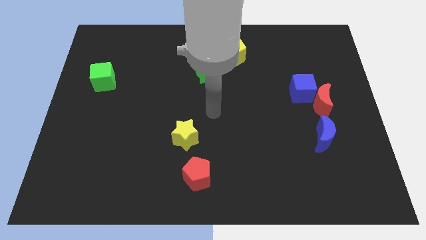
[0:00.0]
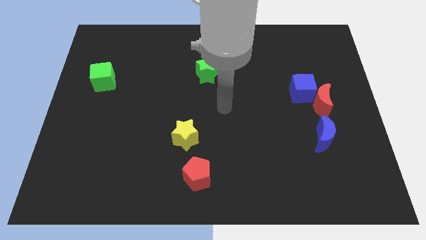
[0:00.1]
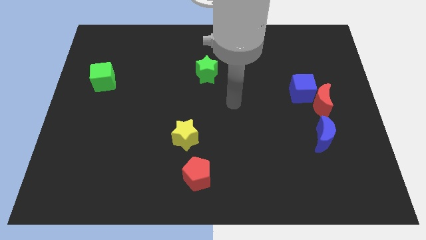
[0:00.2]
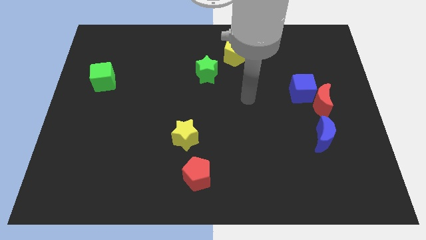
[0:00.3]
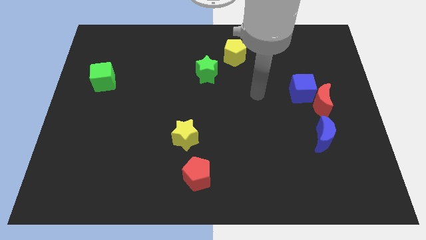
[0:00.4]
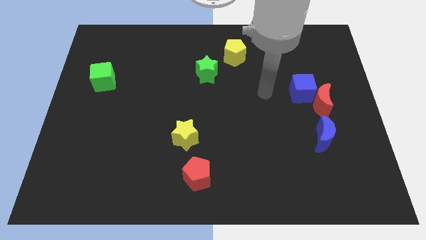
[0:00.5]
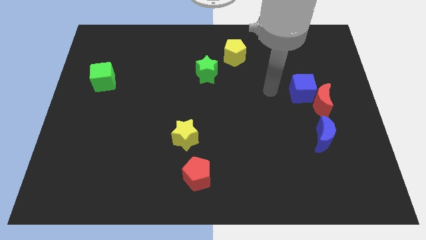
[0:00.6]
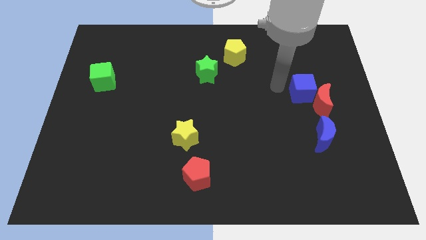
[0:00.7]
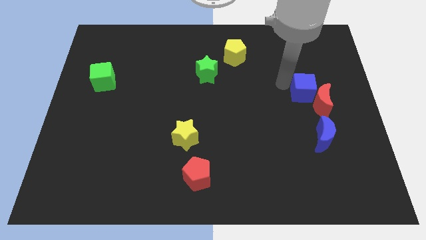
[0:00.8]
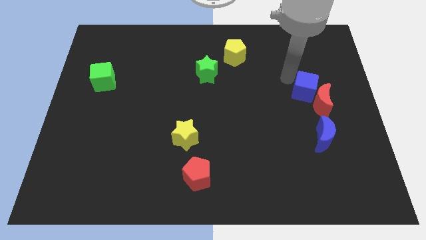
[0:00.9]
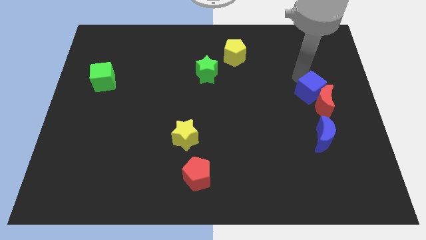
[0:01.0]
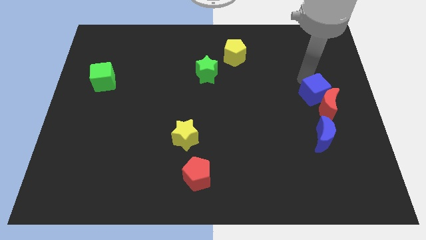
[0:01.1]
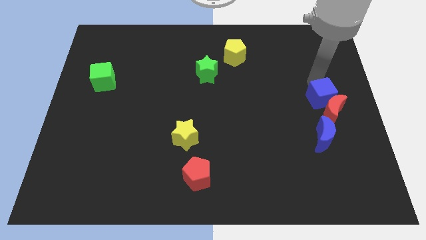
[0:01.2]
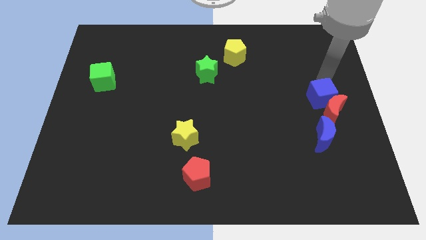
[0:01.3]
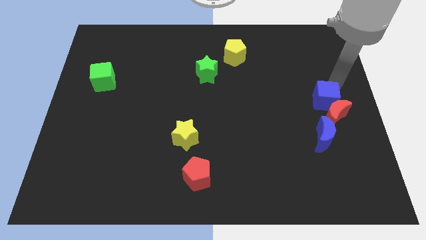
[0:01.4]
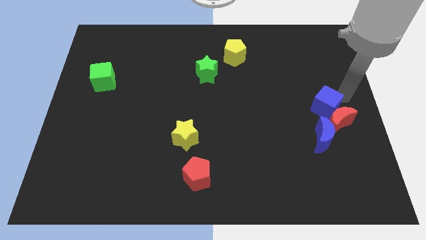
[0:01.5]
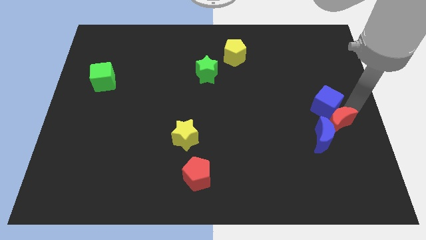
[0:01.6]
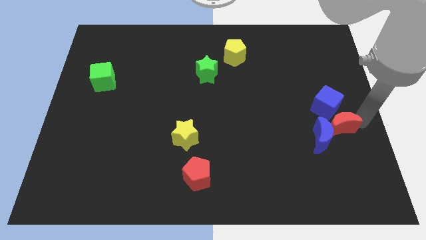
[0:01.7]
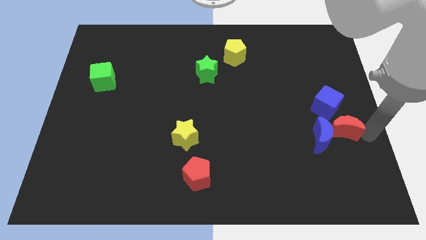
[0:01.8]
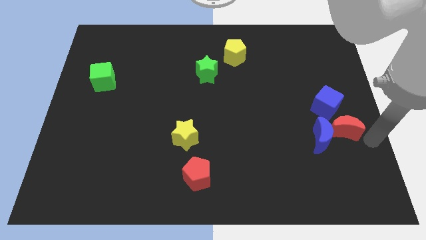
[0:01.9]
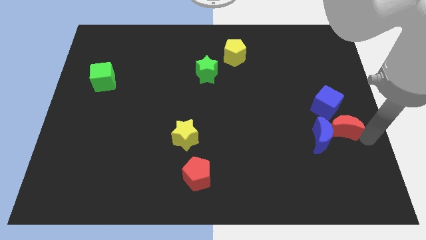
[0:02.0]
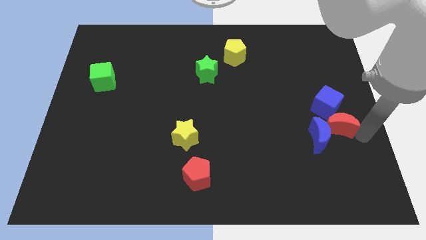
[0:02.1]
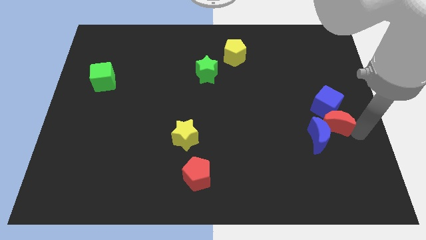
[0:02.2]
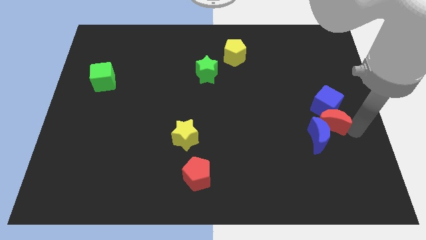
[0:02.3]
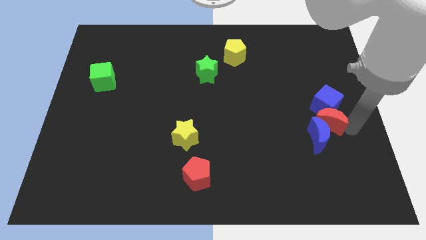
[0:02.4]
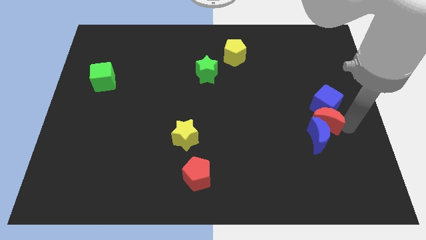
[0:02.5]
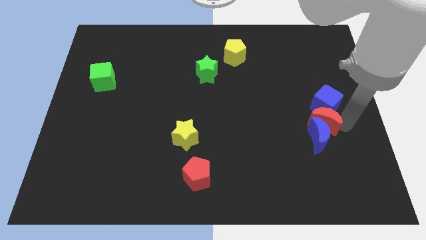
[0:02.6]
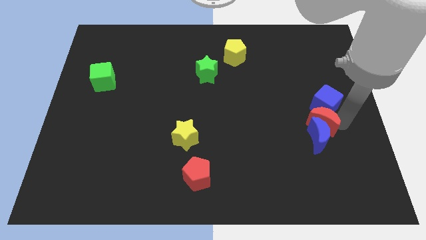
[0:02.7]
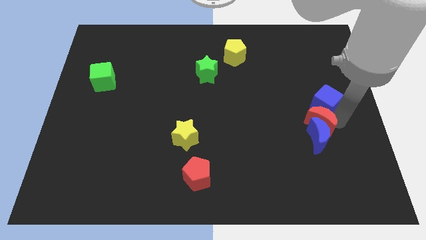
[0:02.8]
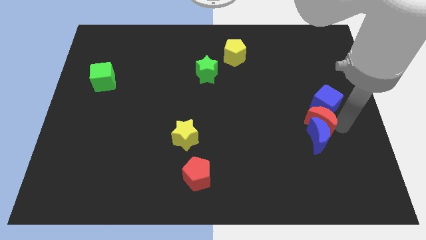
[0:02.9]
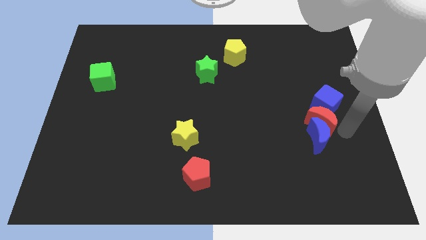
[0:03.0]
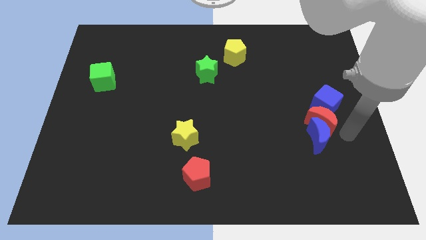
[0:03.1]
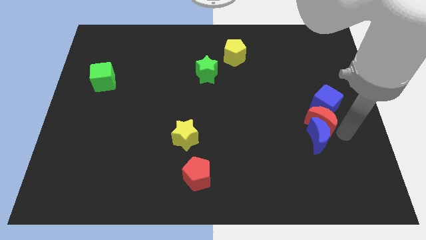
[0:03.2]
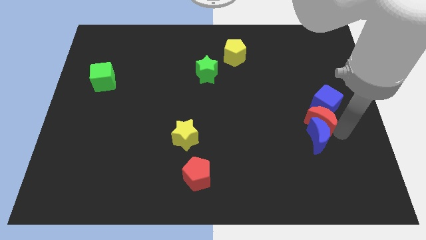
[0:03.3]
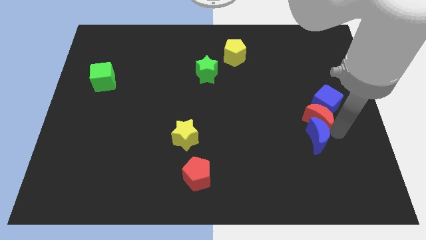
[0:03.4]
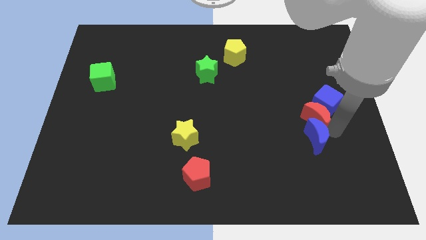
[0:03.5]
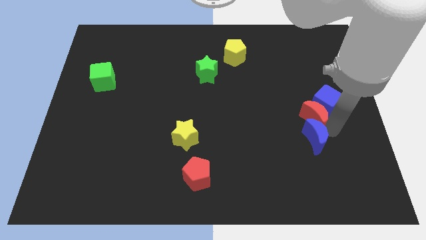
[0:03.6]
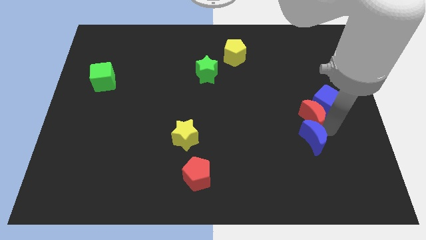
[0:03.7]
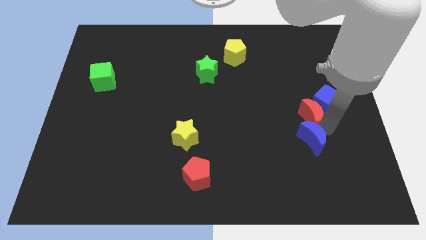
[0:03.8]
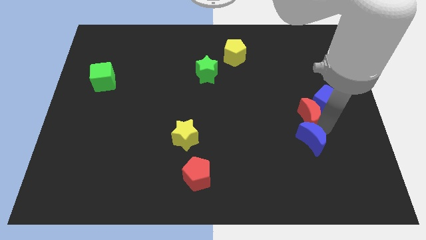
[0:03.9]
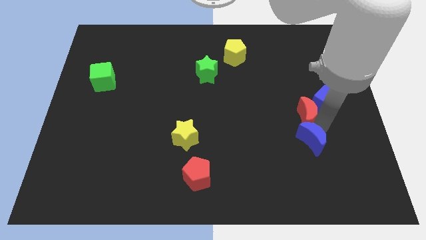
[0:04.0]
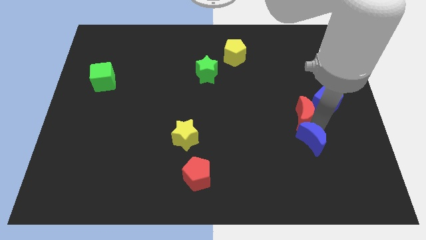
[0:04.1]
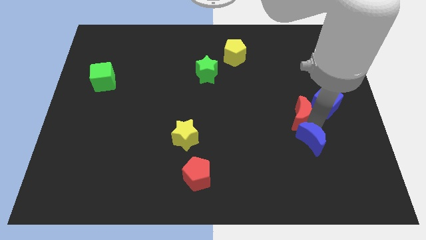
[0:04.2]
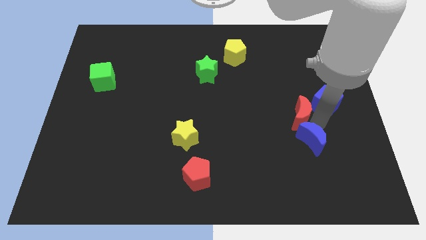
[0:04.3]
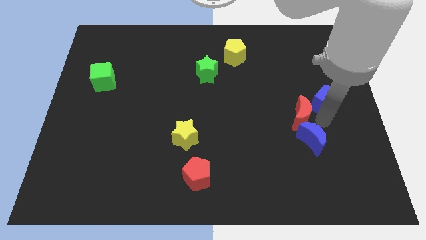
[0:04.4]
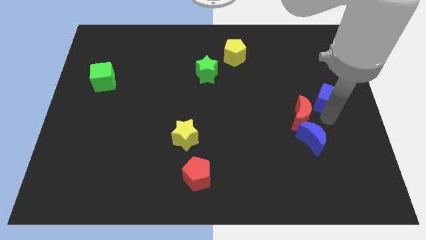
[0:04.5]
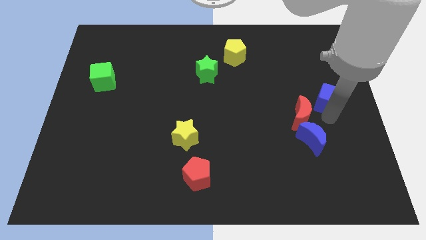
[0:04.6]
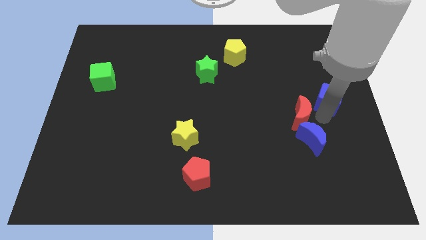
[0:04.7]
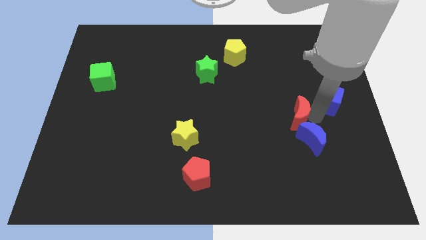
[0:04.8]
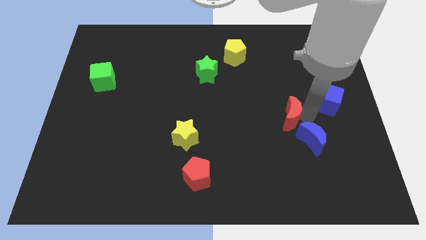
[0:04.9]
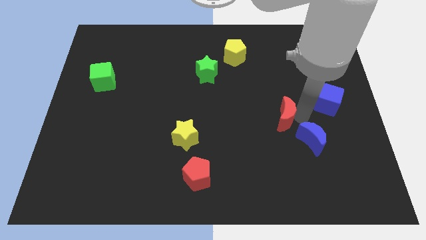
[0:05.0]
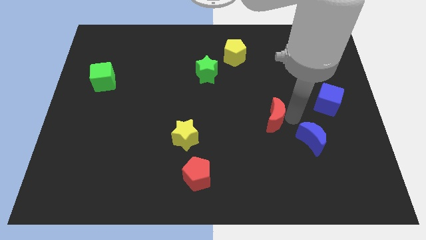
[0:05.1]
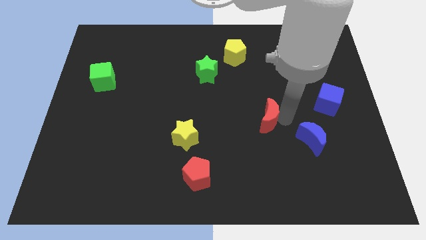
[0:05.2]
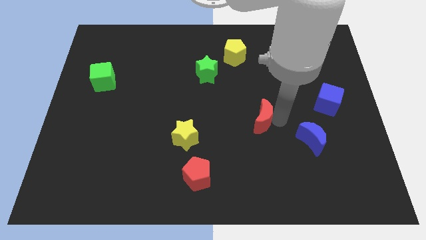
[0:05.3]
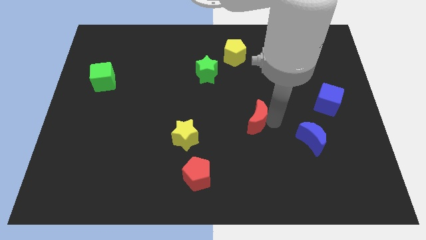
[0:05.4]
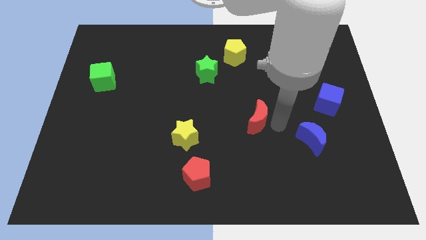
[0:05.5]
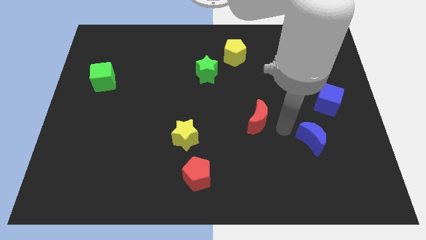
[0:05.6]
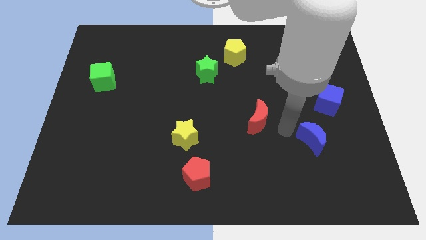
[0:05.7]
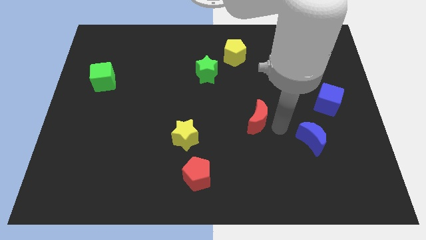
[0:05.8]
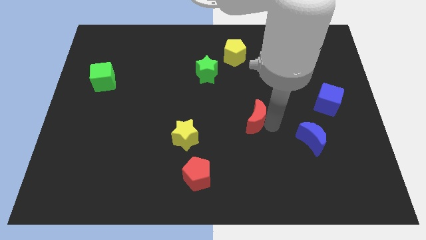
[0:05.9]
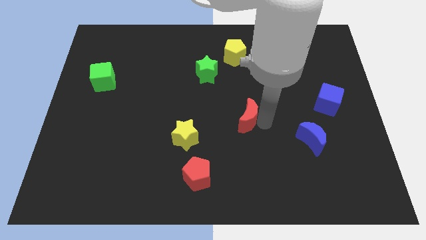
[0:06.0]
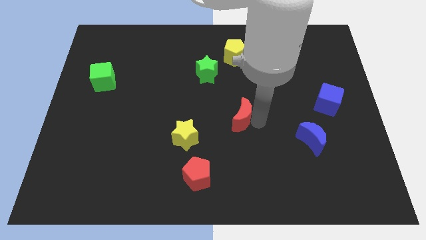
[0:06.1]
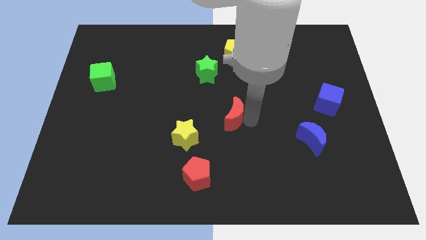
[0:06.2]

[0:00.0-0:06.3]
move the red moon to the left

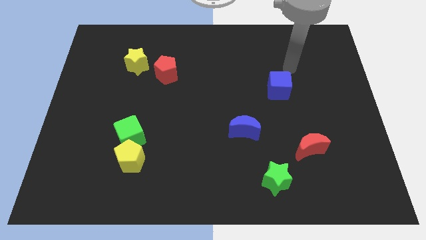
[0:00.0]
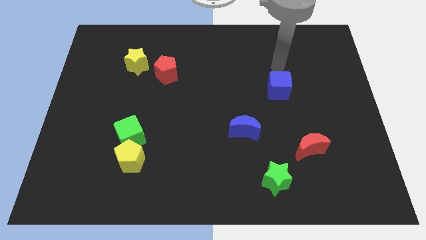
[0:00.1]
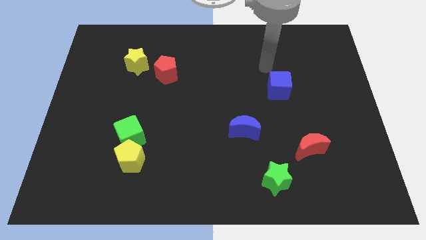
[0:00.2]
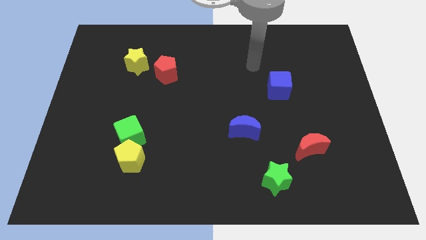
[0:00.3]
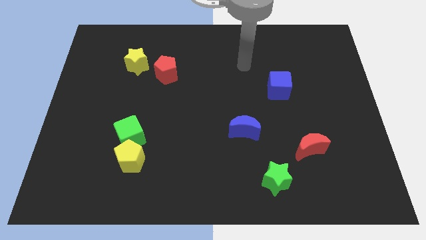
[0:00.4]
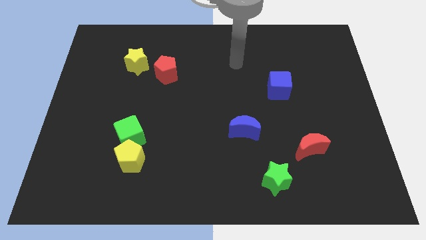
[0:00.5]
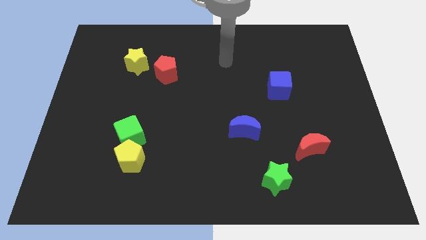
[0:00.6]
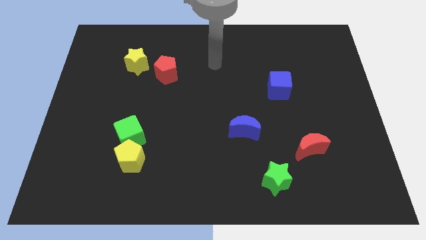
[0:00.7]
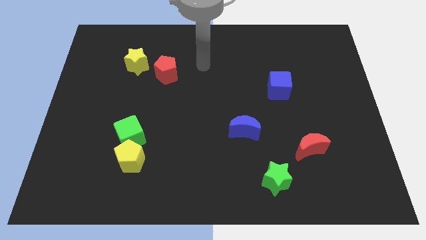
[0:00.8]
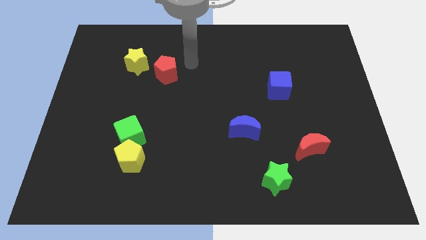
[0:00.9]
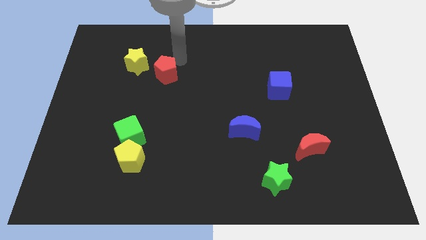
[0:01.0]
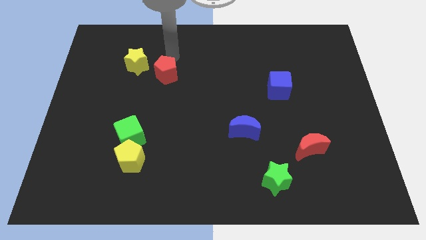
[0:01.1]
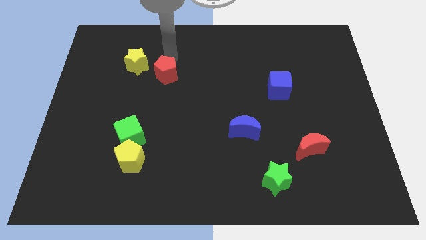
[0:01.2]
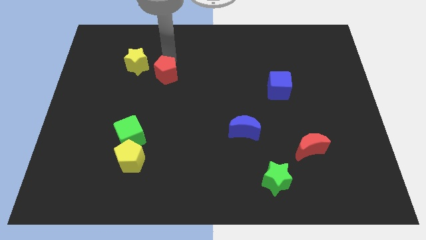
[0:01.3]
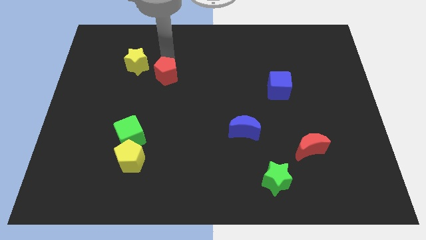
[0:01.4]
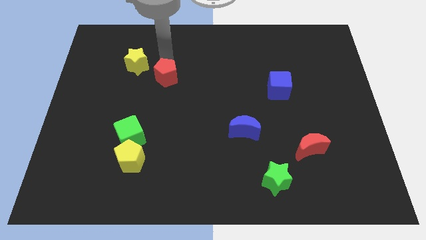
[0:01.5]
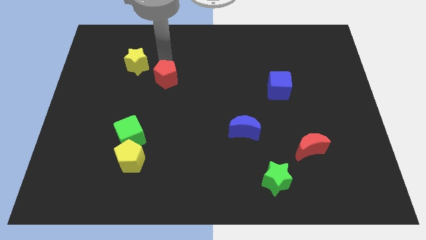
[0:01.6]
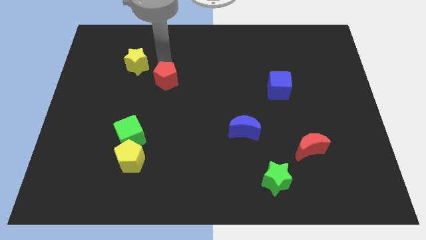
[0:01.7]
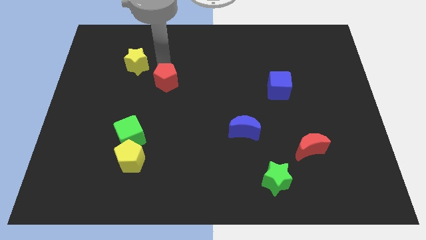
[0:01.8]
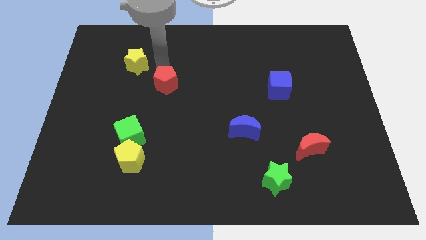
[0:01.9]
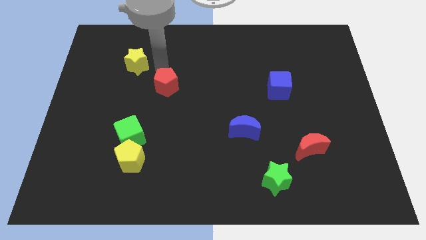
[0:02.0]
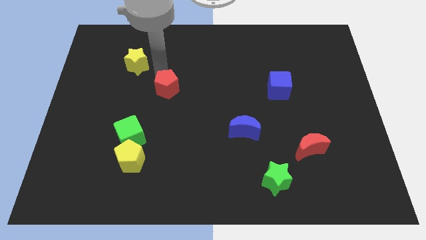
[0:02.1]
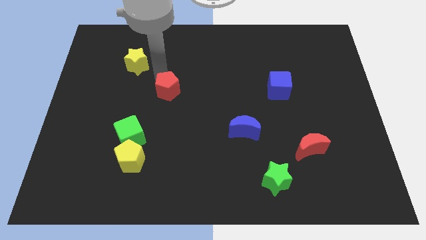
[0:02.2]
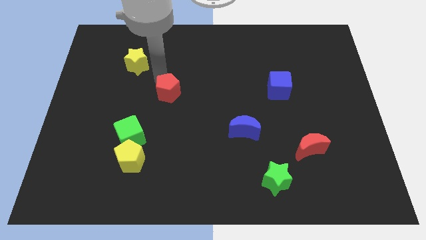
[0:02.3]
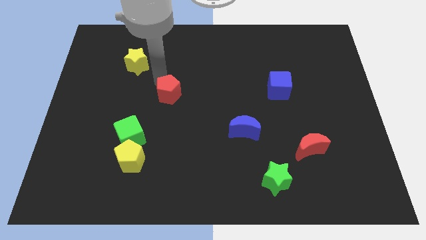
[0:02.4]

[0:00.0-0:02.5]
slightly push the red pentagon downwards
